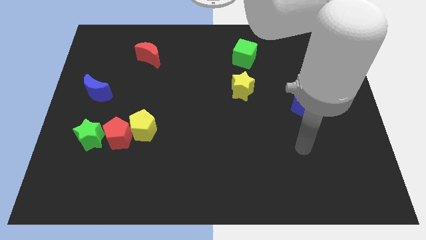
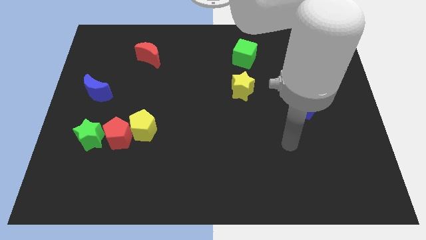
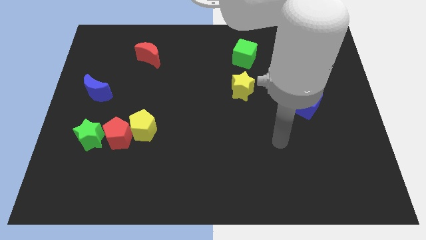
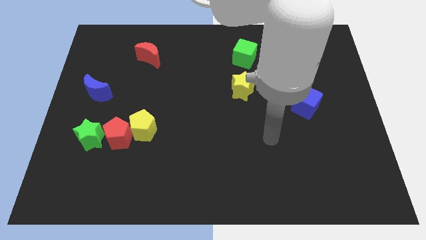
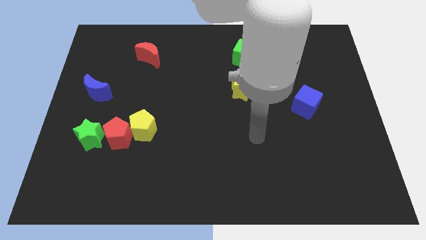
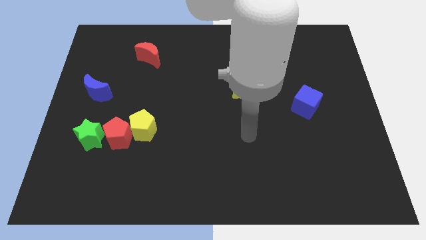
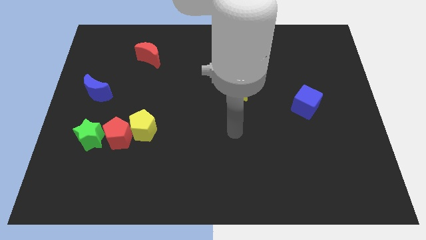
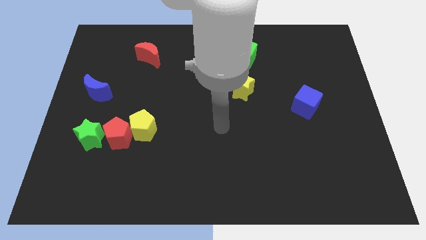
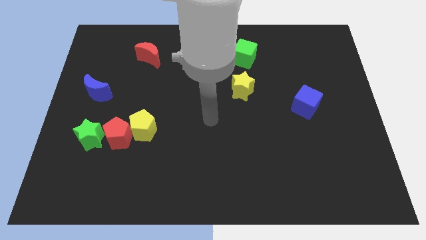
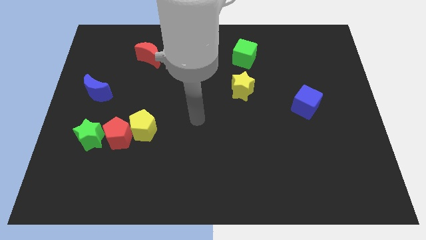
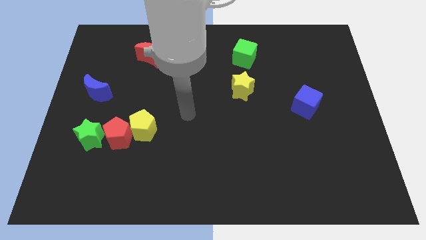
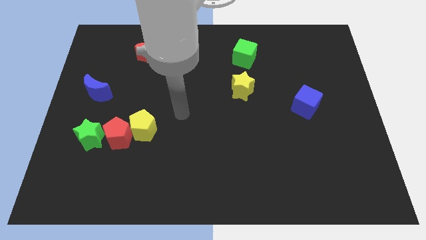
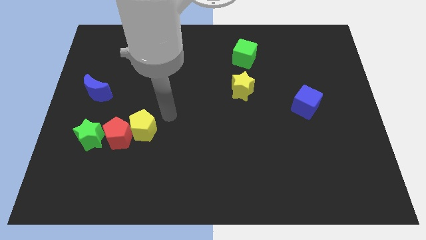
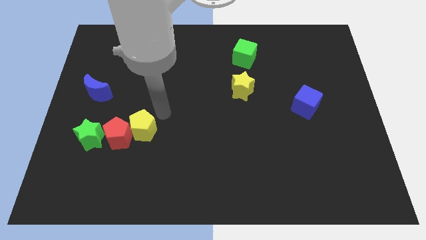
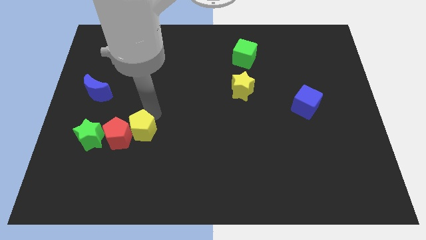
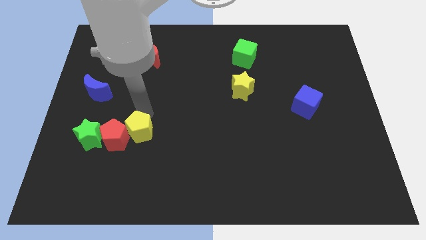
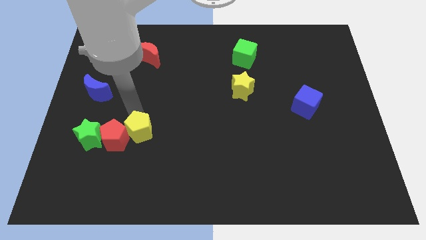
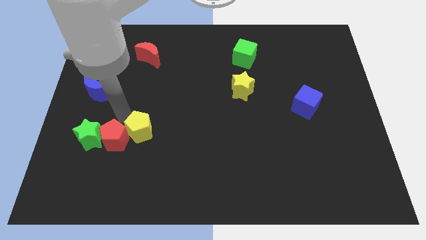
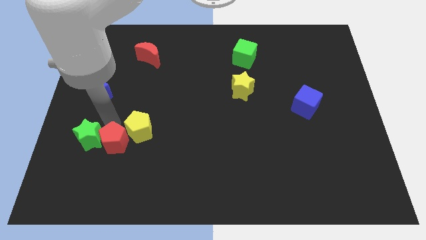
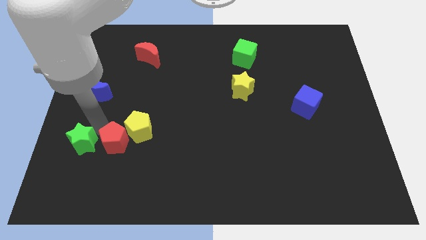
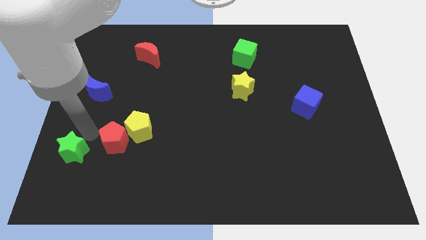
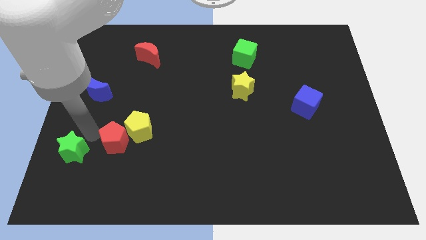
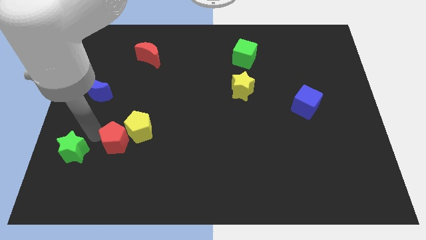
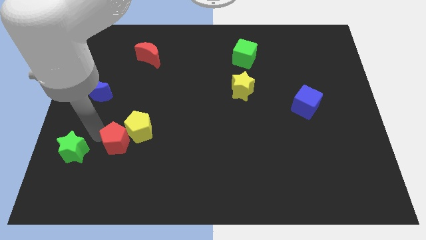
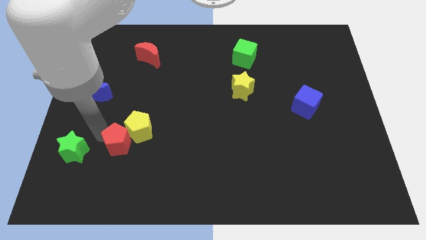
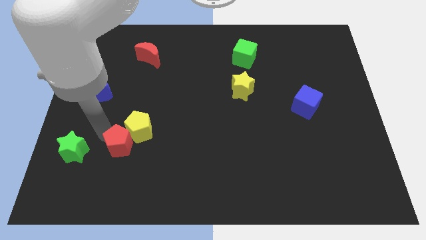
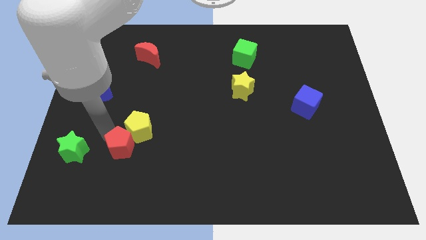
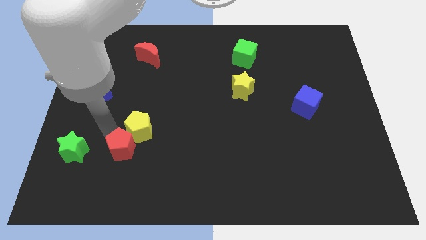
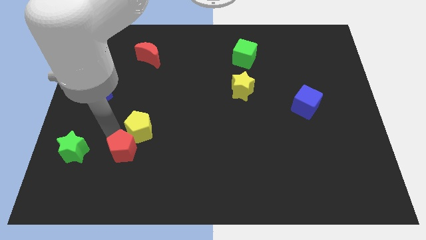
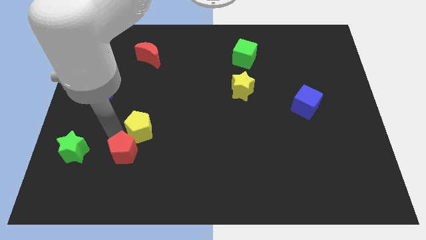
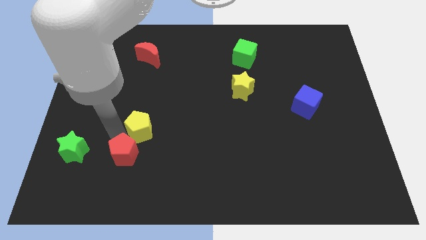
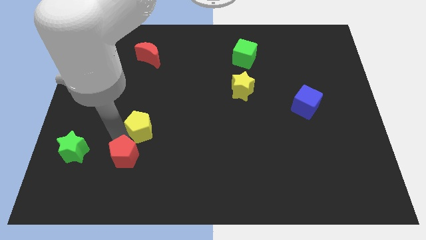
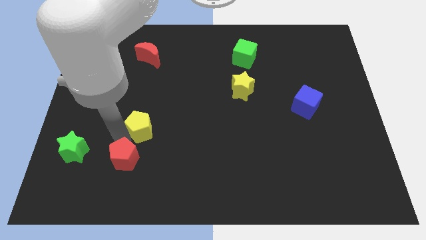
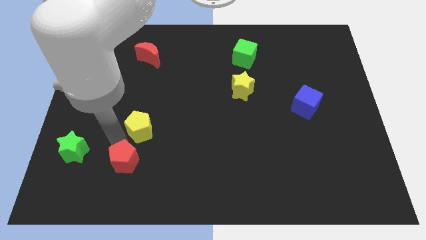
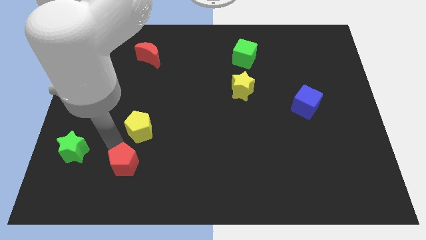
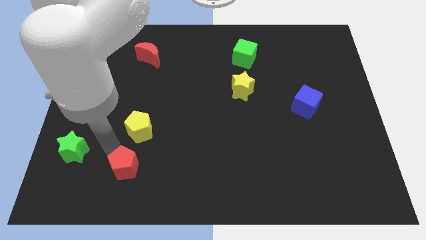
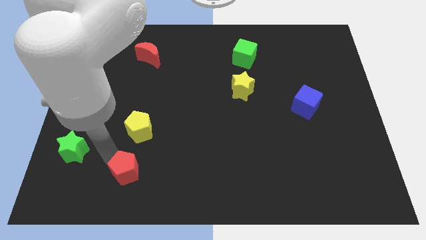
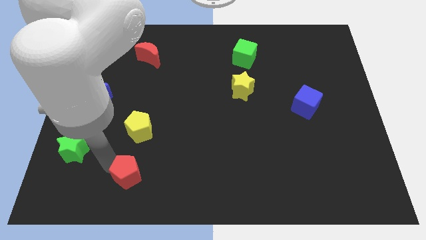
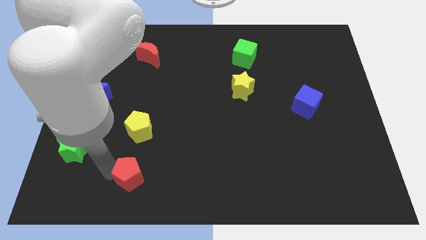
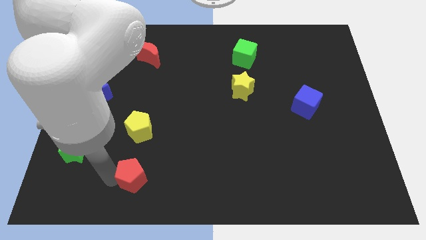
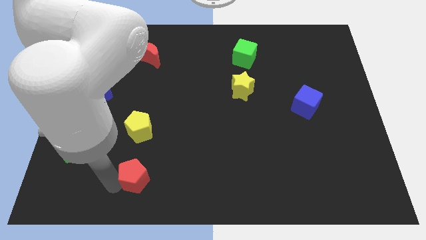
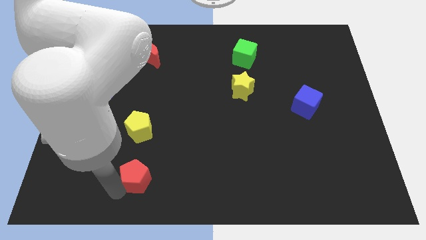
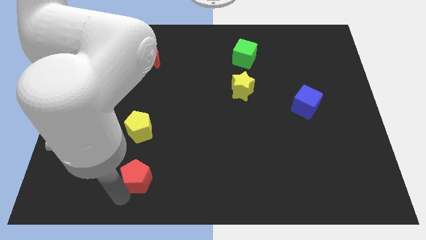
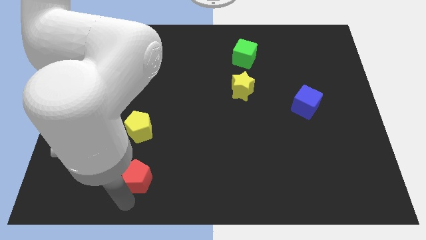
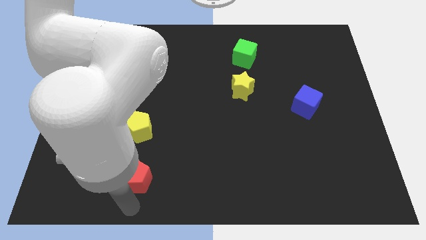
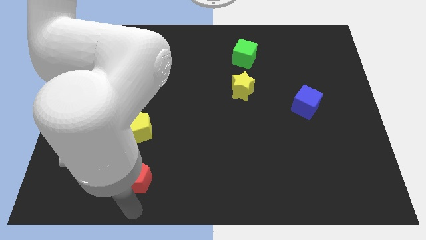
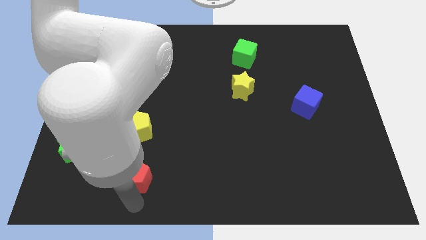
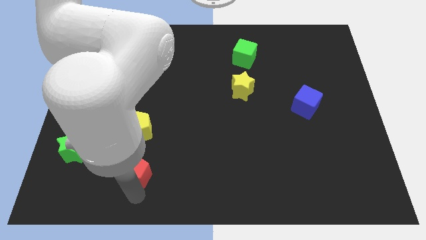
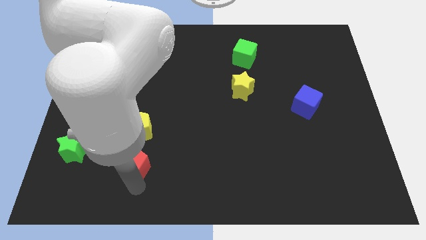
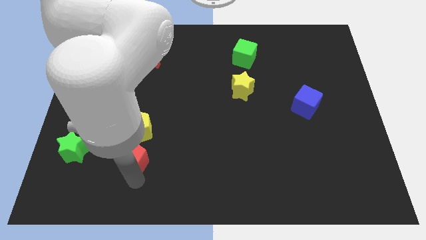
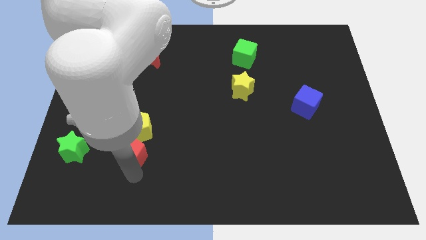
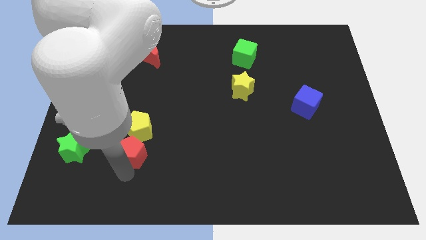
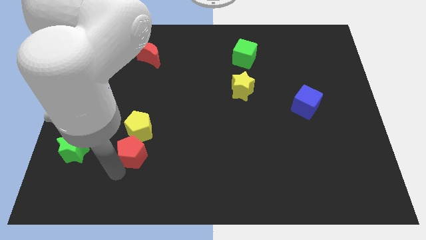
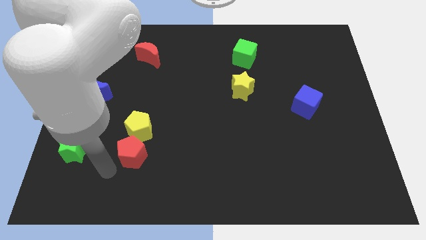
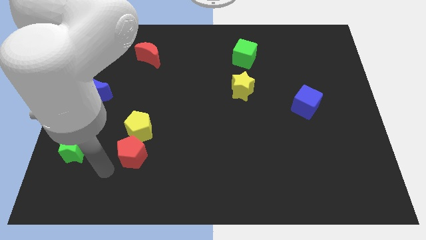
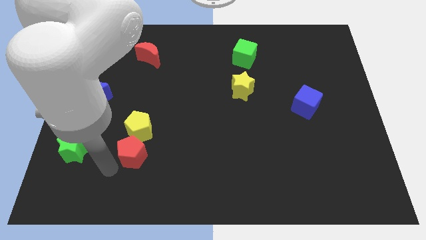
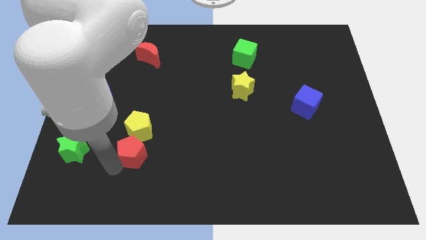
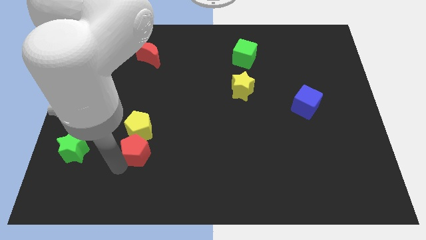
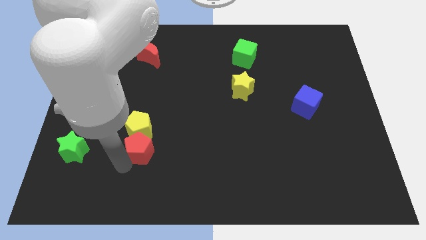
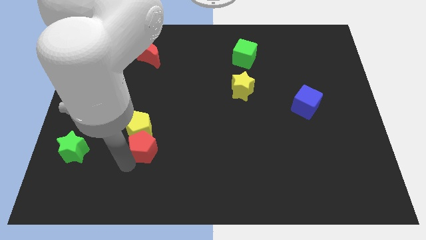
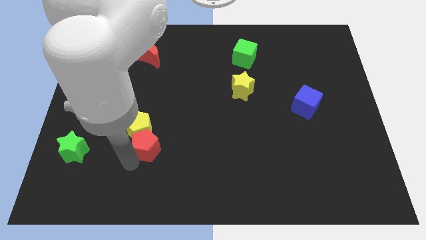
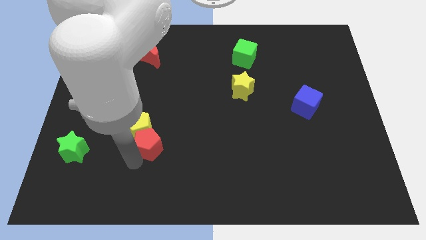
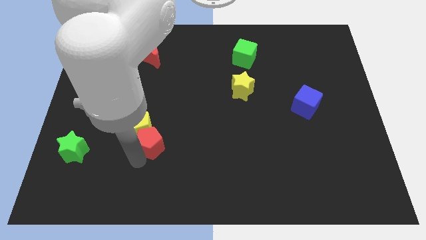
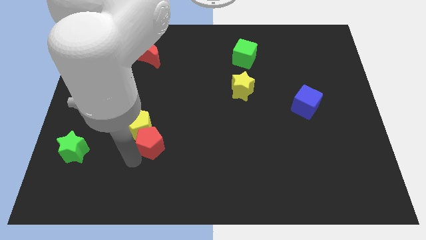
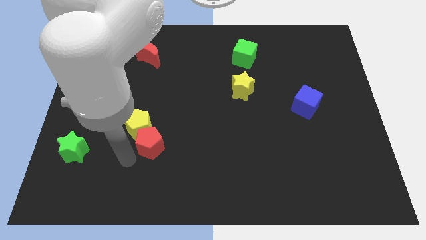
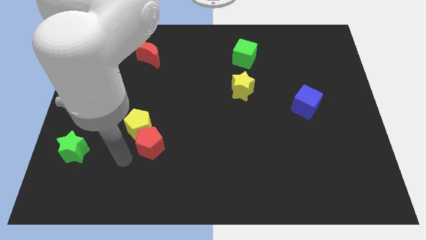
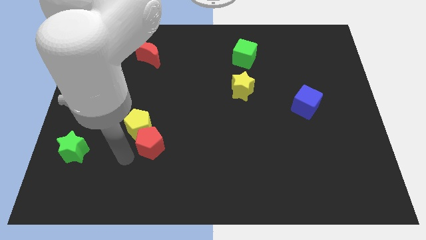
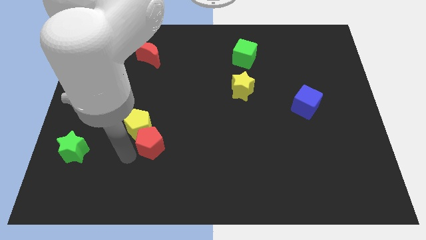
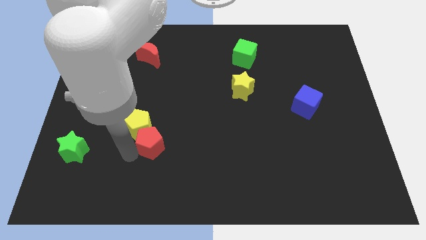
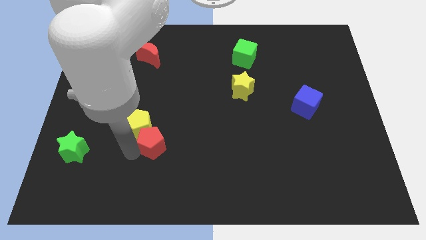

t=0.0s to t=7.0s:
push the red pentagon to the right of the yellow pentagon

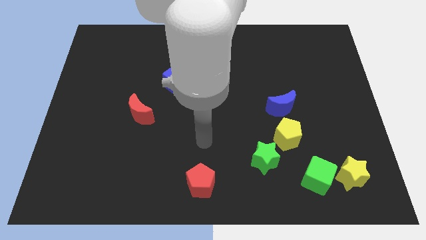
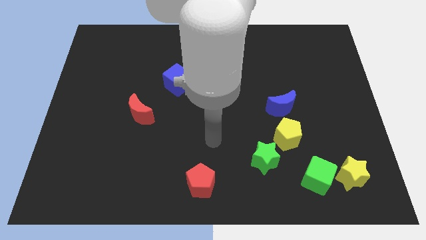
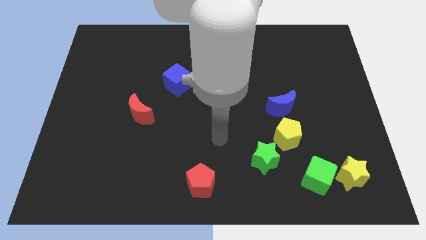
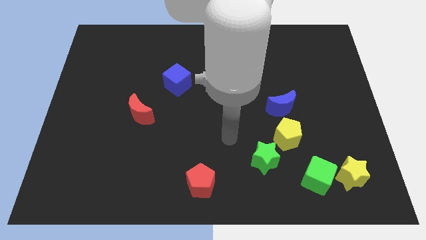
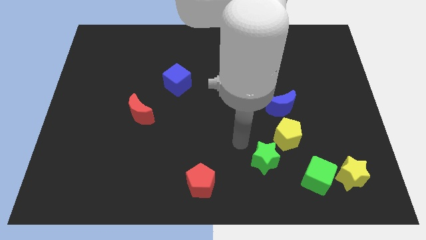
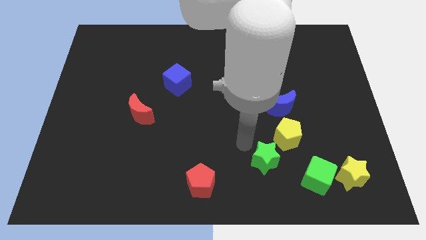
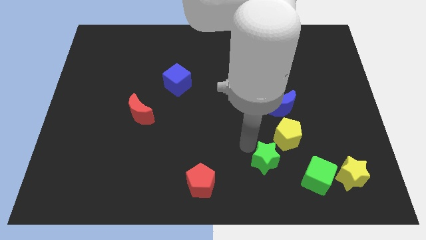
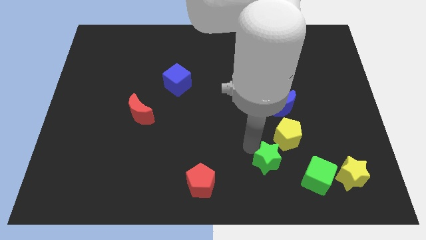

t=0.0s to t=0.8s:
put the green star to the bottom side of the yellow pentagon
